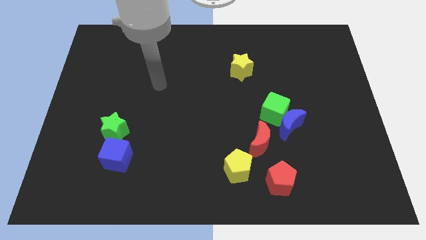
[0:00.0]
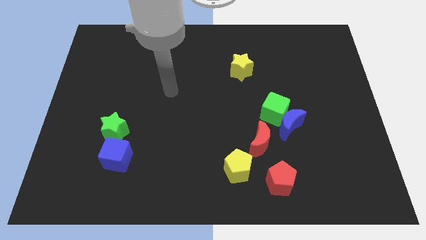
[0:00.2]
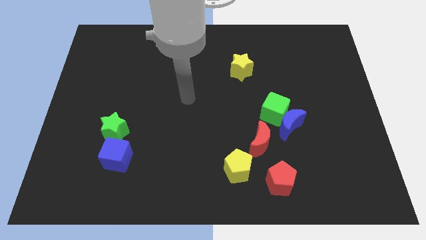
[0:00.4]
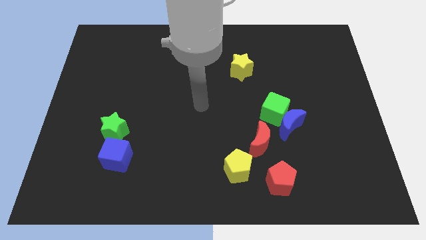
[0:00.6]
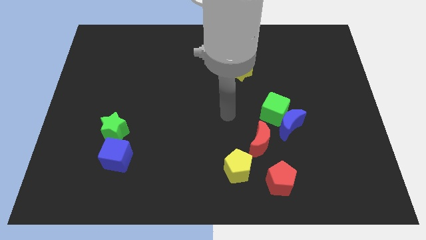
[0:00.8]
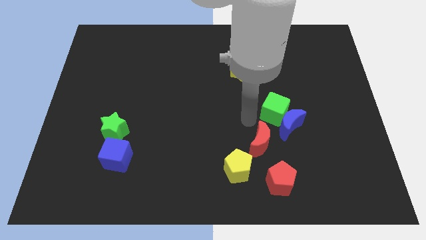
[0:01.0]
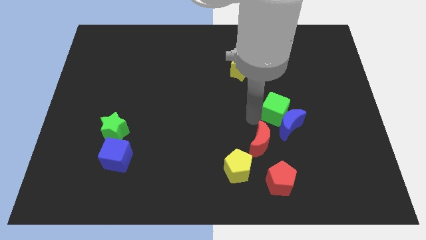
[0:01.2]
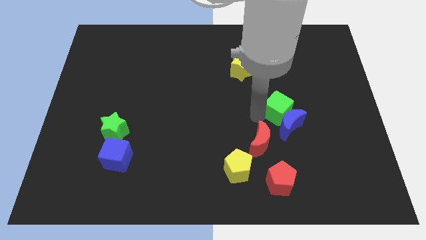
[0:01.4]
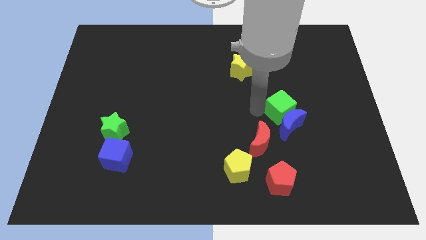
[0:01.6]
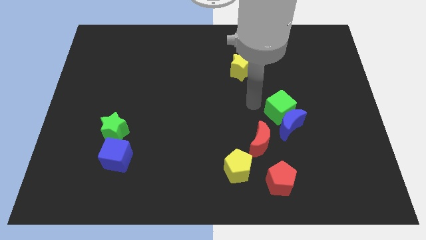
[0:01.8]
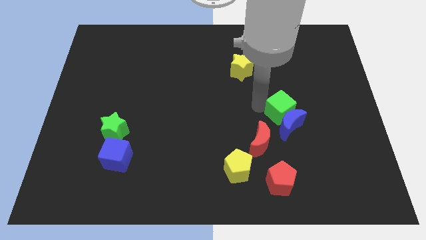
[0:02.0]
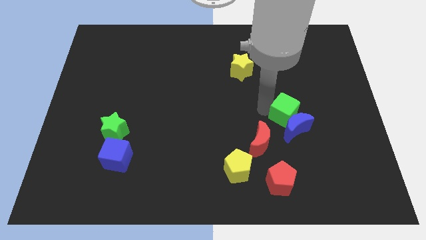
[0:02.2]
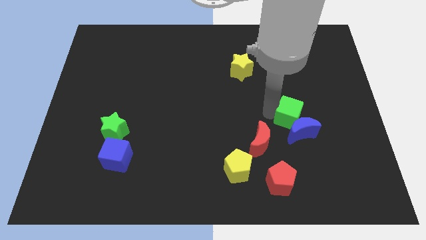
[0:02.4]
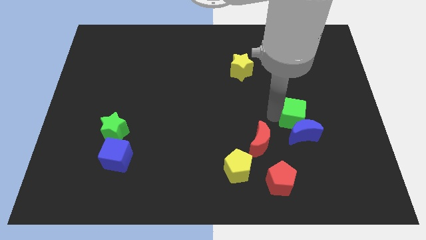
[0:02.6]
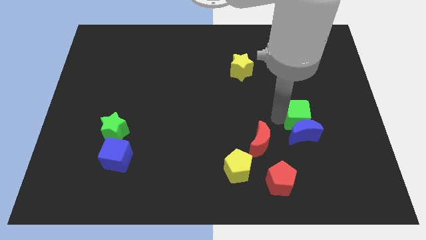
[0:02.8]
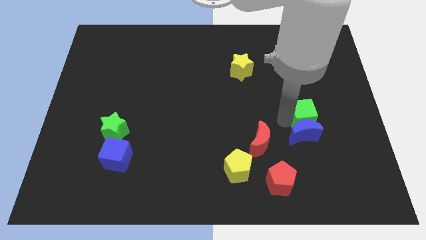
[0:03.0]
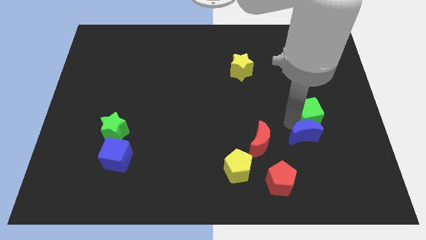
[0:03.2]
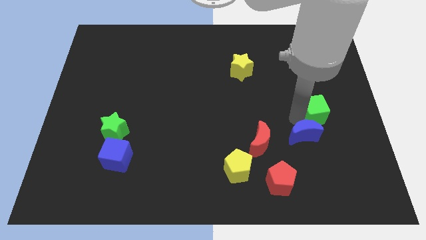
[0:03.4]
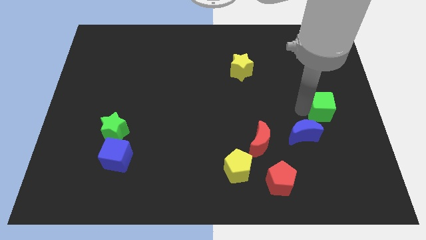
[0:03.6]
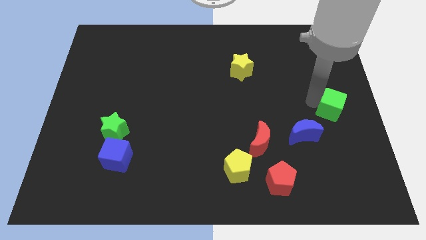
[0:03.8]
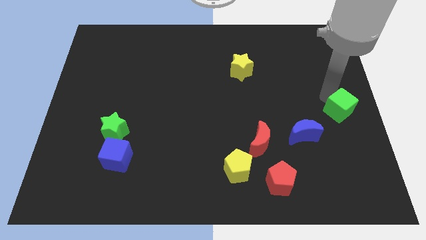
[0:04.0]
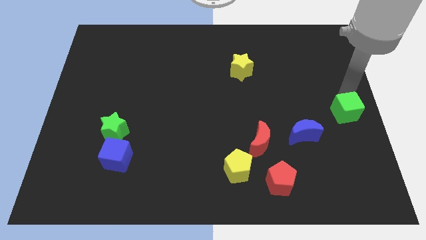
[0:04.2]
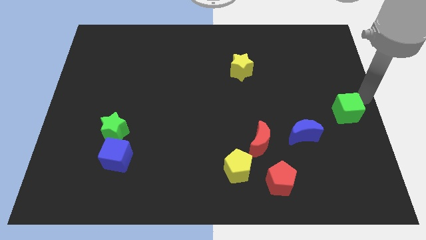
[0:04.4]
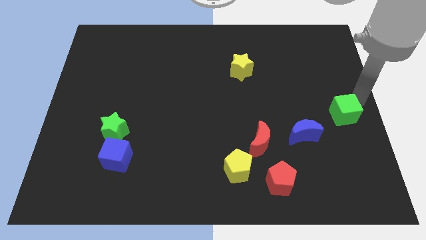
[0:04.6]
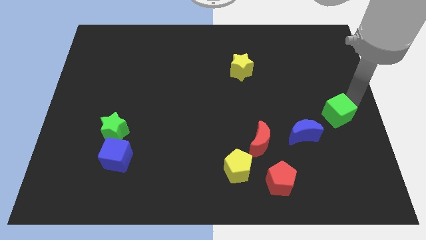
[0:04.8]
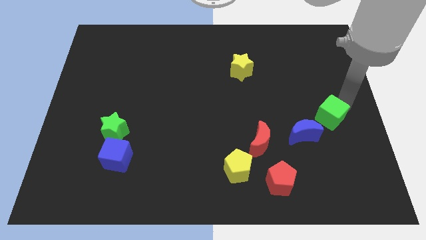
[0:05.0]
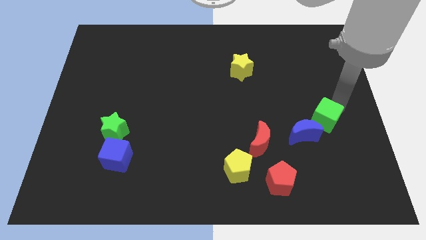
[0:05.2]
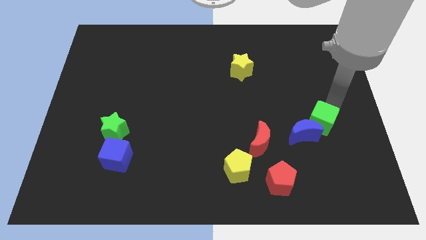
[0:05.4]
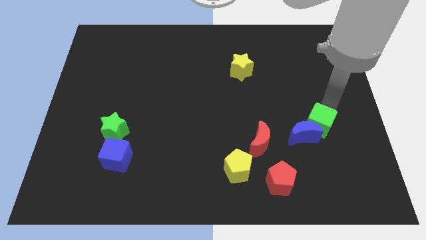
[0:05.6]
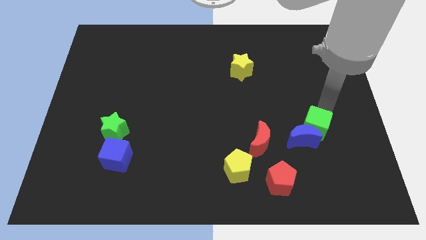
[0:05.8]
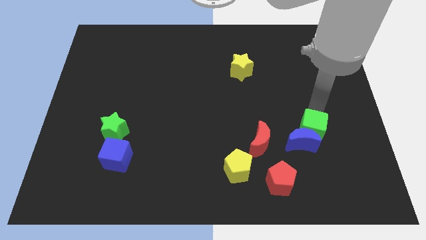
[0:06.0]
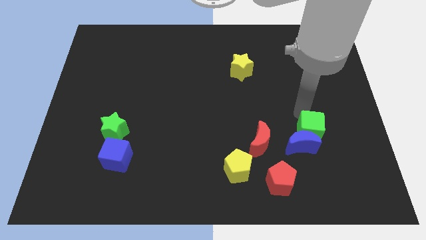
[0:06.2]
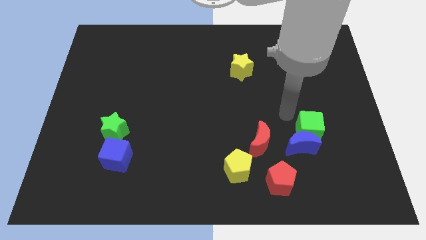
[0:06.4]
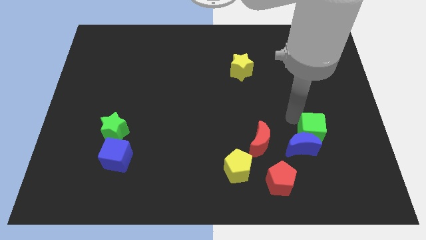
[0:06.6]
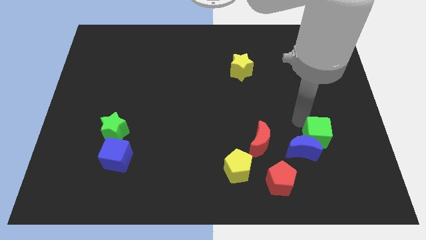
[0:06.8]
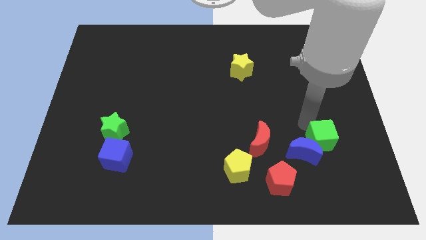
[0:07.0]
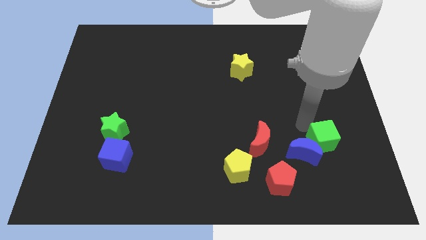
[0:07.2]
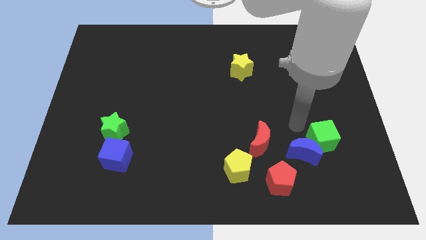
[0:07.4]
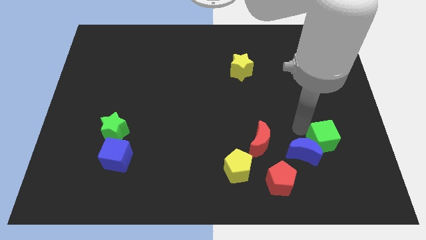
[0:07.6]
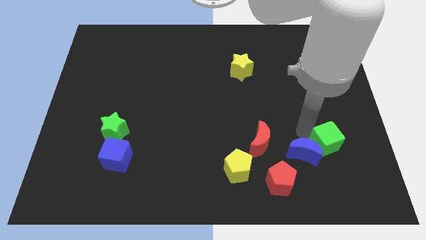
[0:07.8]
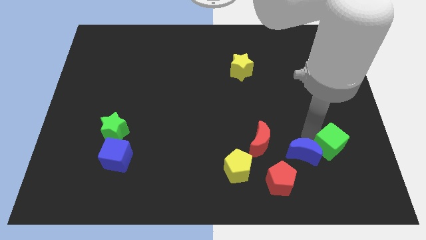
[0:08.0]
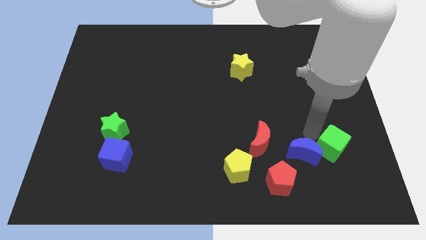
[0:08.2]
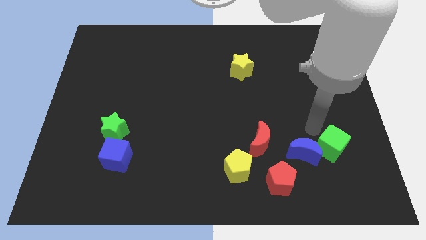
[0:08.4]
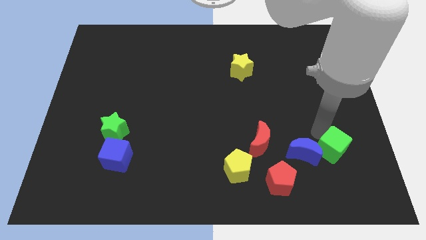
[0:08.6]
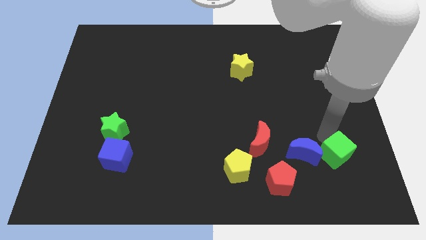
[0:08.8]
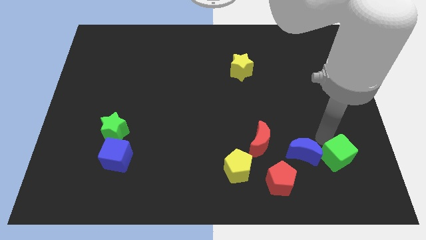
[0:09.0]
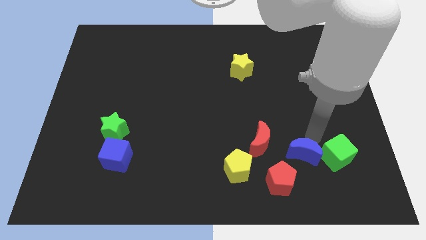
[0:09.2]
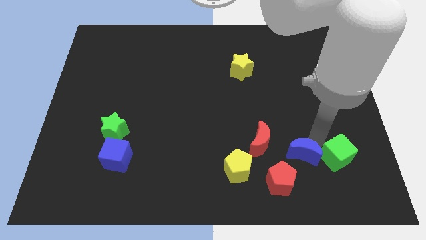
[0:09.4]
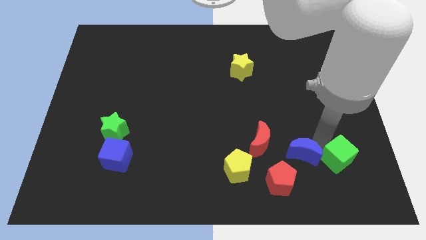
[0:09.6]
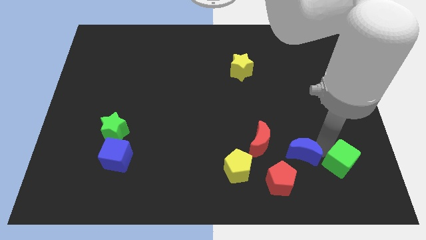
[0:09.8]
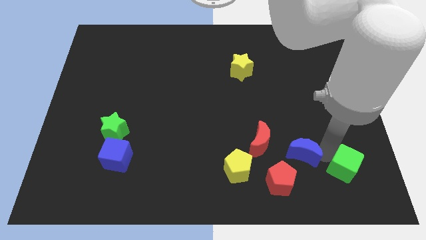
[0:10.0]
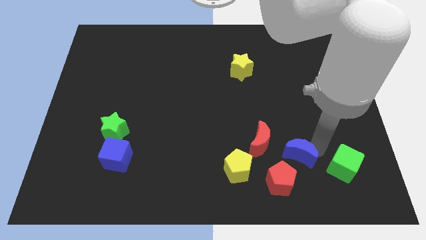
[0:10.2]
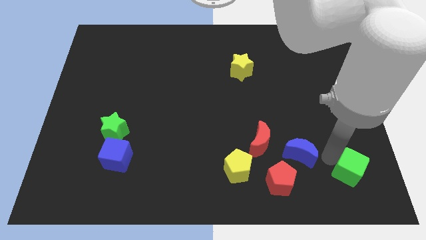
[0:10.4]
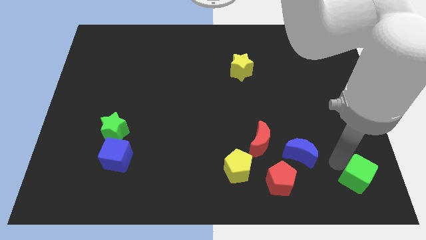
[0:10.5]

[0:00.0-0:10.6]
push the green cube to the lower right corner
